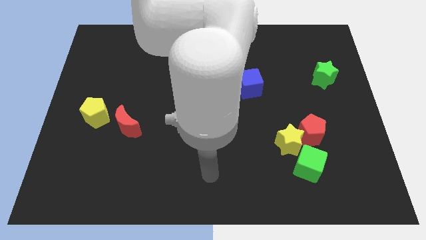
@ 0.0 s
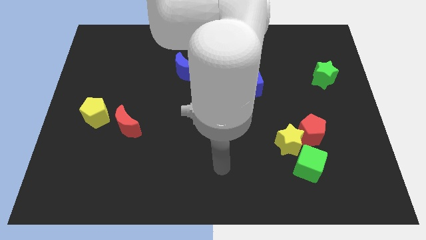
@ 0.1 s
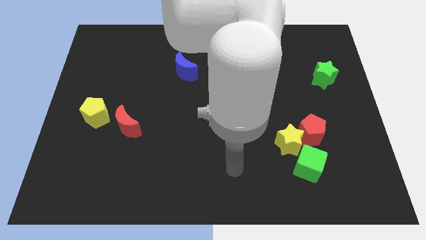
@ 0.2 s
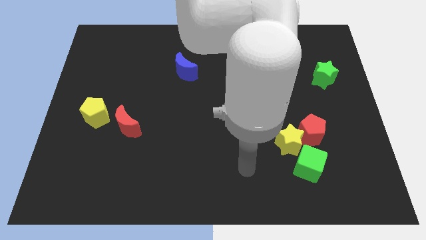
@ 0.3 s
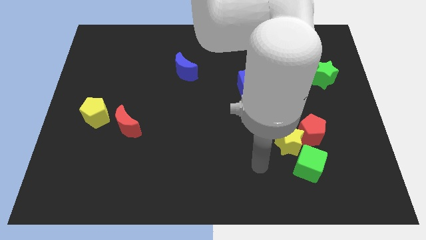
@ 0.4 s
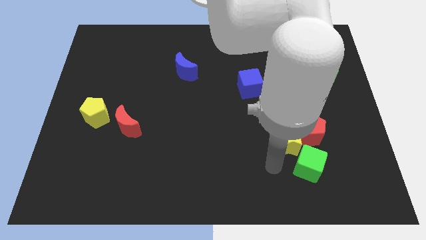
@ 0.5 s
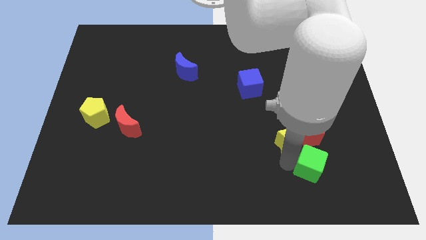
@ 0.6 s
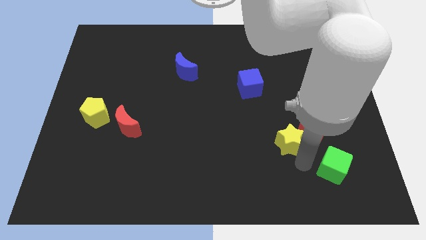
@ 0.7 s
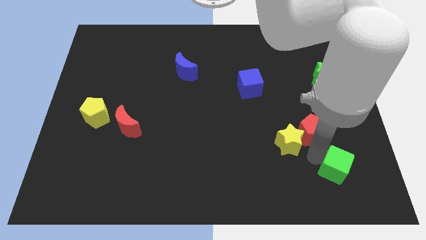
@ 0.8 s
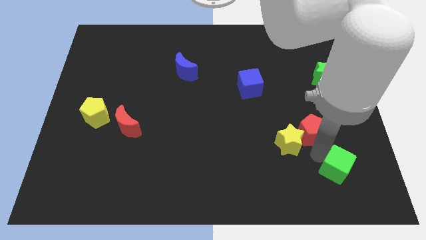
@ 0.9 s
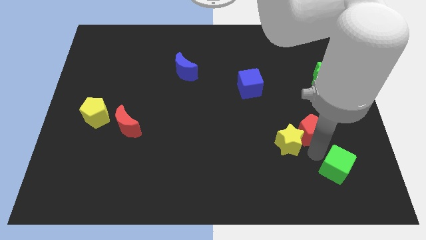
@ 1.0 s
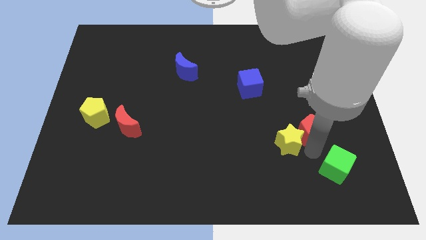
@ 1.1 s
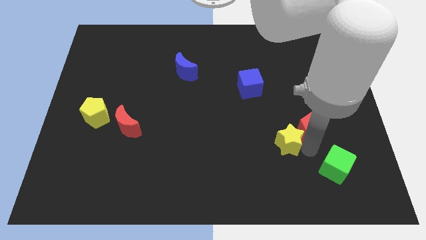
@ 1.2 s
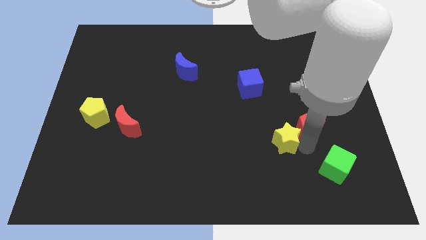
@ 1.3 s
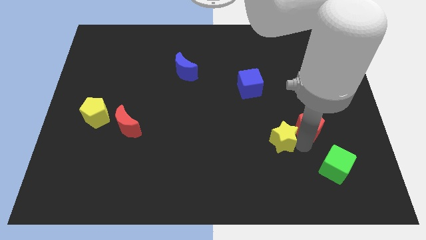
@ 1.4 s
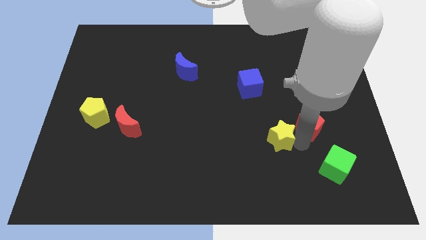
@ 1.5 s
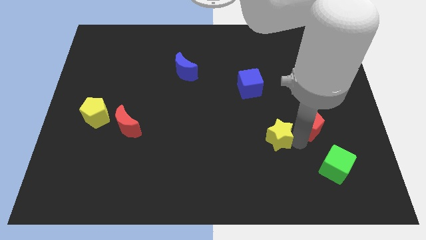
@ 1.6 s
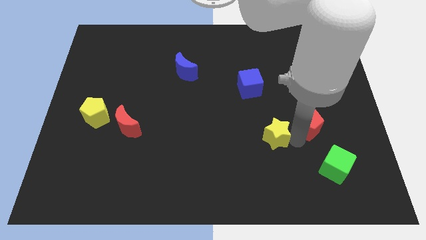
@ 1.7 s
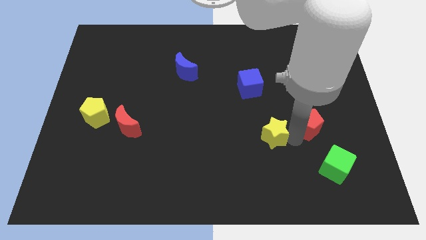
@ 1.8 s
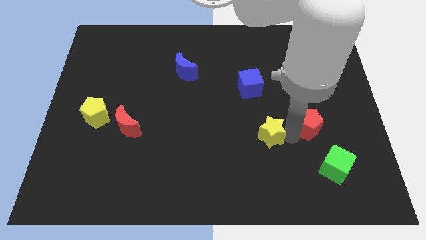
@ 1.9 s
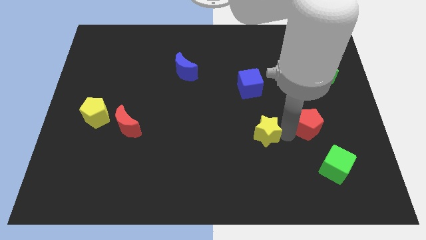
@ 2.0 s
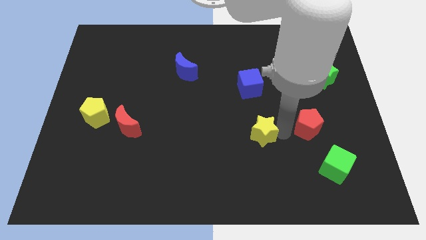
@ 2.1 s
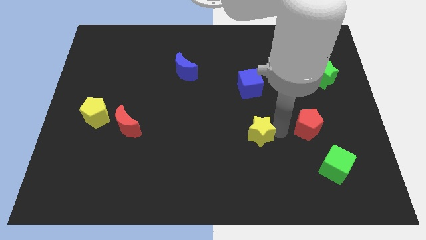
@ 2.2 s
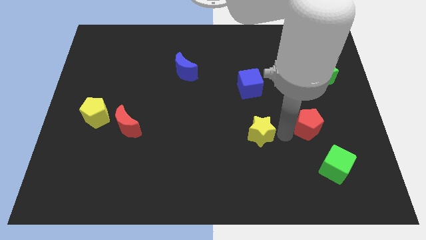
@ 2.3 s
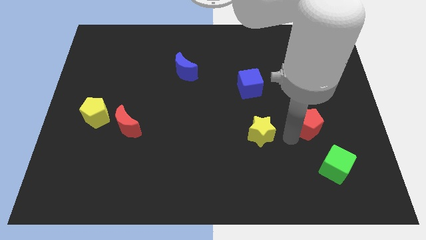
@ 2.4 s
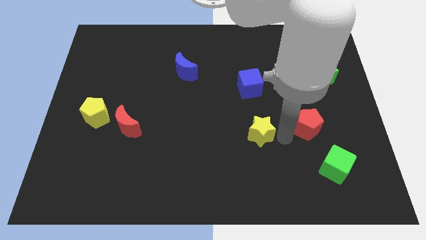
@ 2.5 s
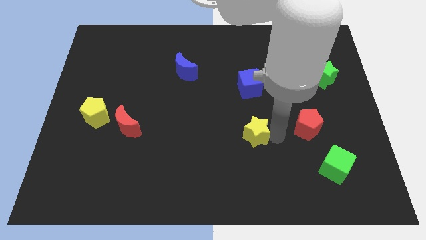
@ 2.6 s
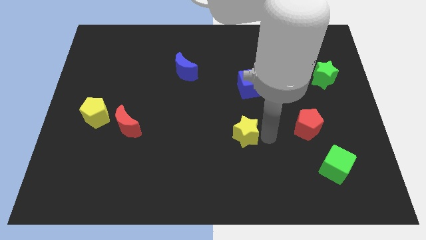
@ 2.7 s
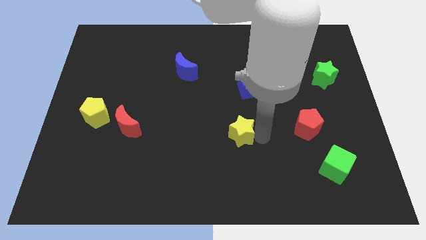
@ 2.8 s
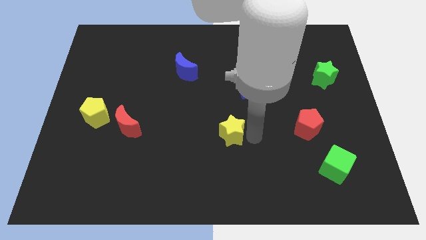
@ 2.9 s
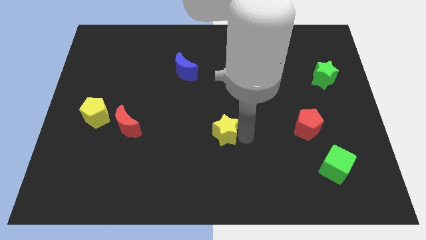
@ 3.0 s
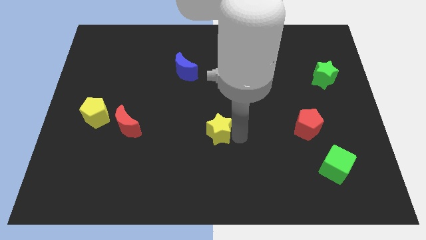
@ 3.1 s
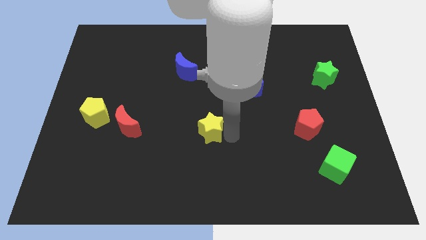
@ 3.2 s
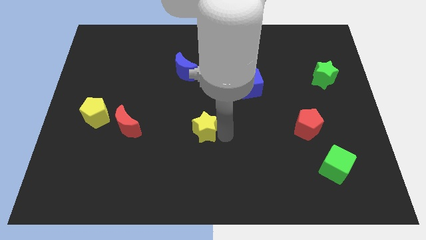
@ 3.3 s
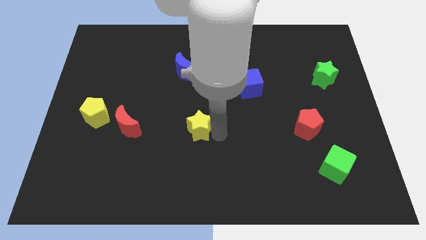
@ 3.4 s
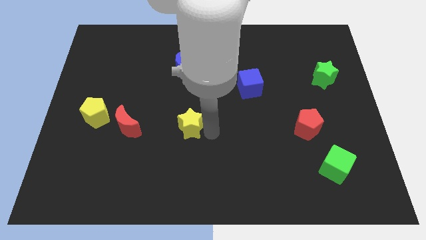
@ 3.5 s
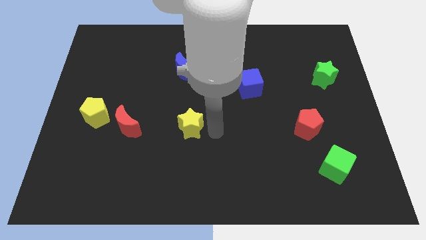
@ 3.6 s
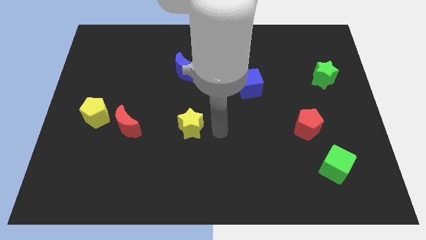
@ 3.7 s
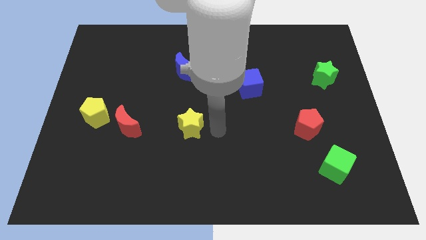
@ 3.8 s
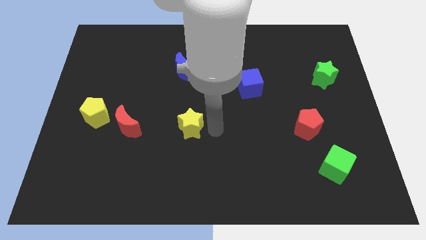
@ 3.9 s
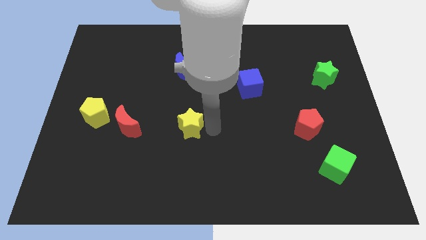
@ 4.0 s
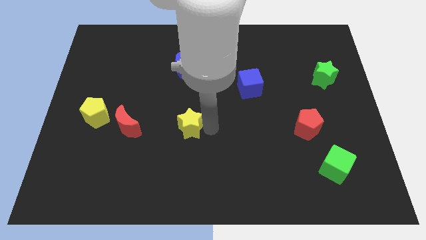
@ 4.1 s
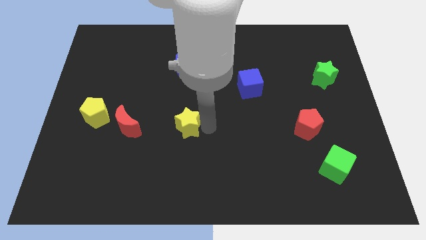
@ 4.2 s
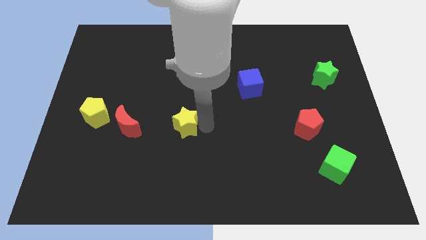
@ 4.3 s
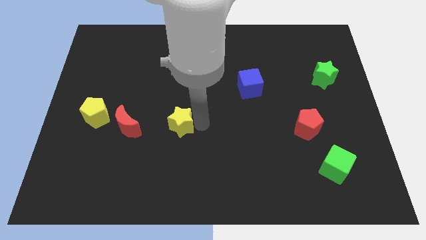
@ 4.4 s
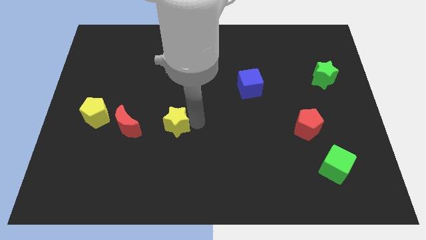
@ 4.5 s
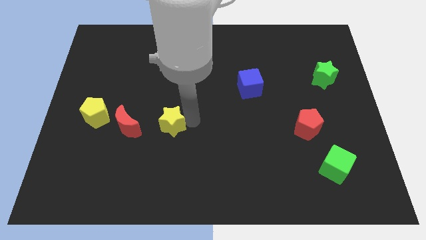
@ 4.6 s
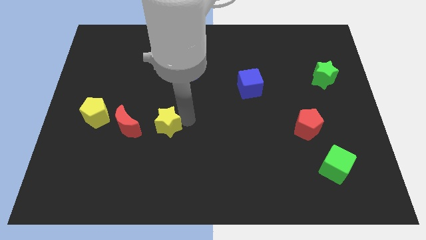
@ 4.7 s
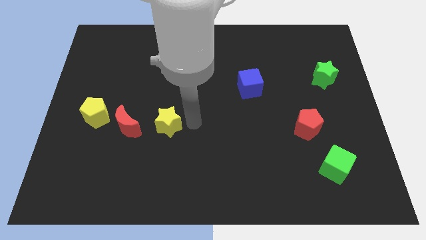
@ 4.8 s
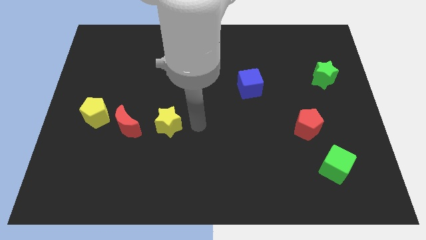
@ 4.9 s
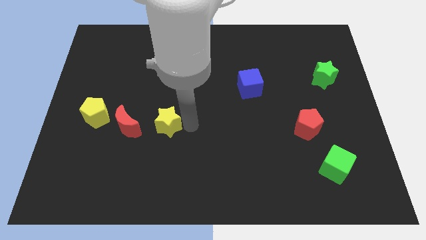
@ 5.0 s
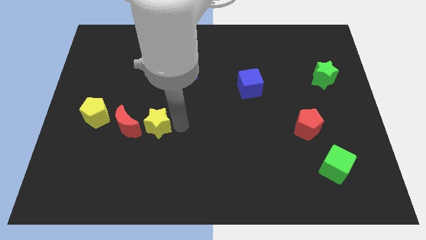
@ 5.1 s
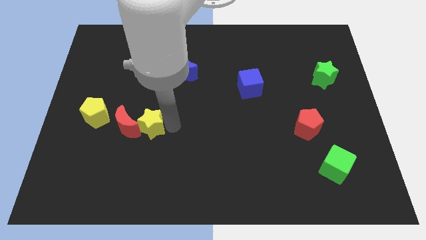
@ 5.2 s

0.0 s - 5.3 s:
slide the yellow star towards the red moon

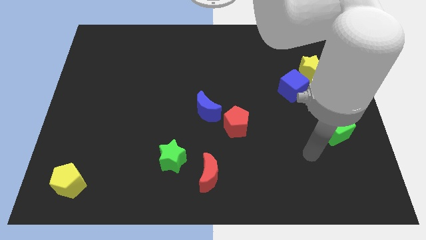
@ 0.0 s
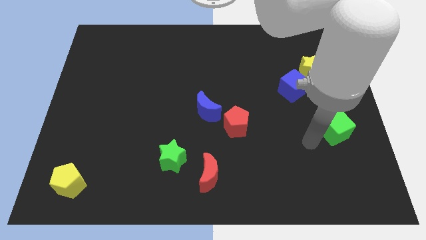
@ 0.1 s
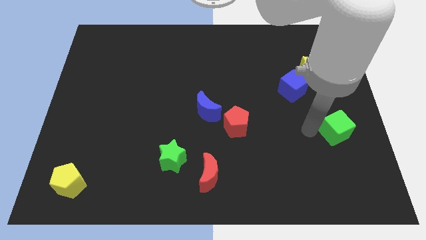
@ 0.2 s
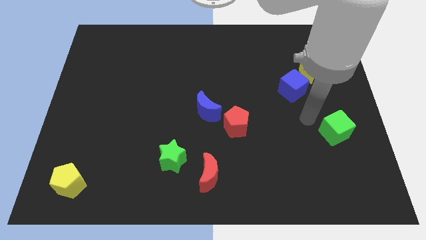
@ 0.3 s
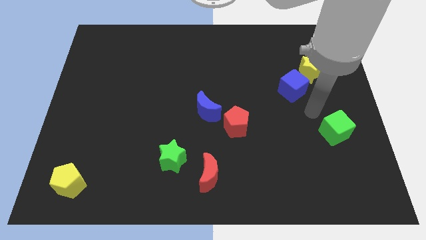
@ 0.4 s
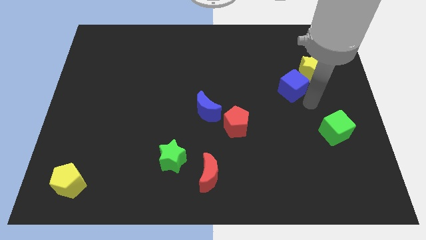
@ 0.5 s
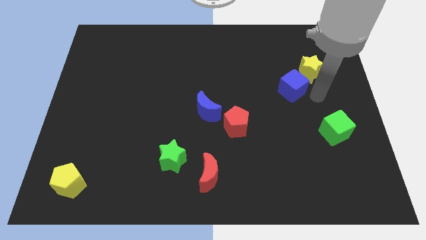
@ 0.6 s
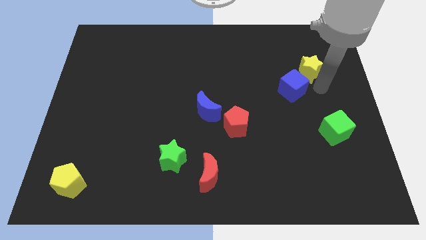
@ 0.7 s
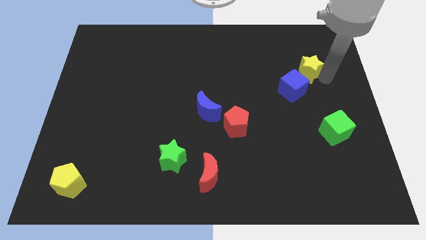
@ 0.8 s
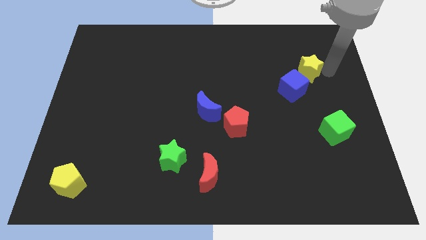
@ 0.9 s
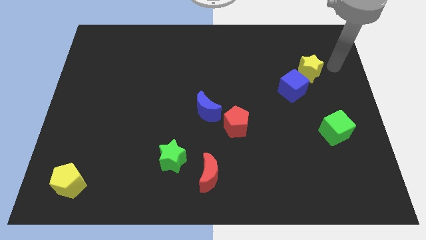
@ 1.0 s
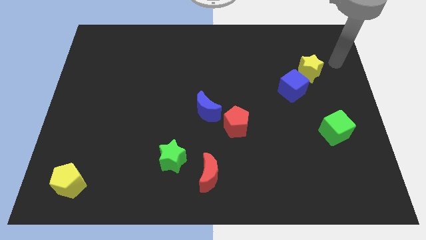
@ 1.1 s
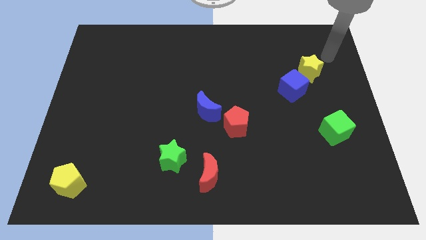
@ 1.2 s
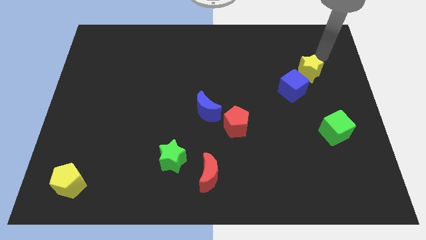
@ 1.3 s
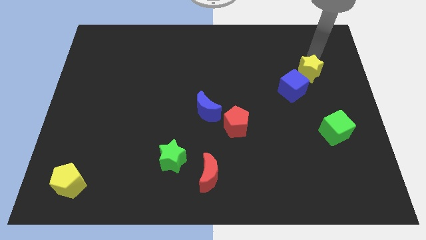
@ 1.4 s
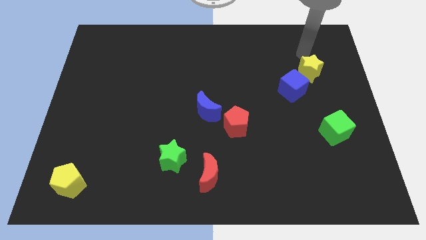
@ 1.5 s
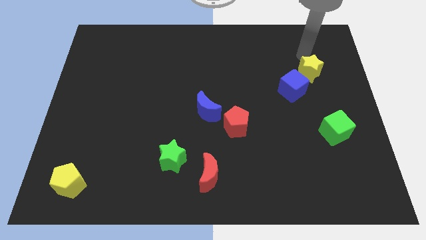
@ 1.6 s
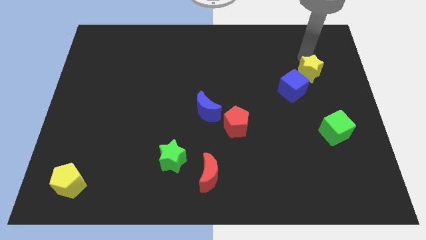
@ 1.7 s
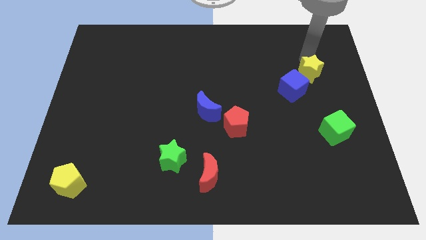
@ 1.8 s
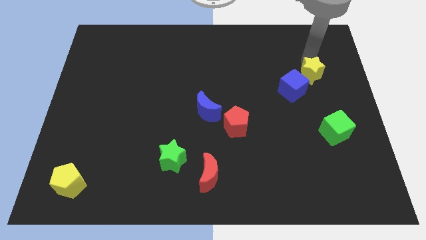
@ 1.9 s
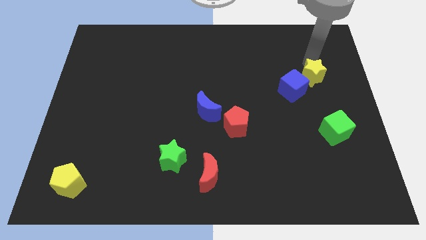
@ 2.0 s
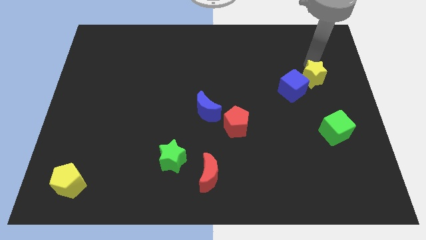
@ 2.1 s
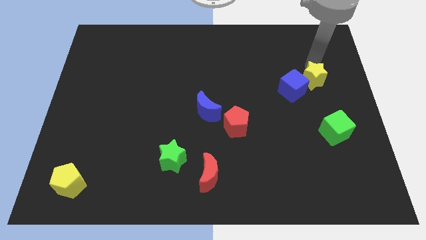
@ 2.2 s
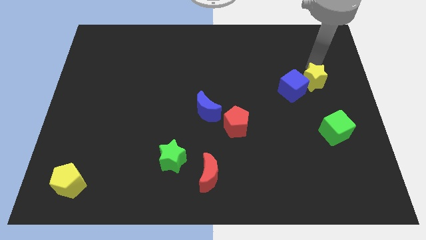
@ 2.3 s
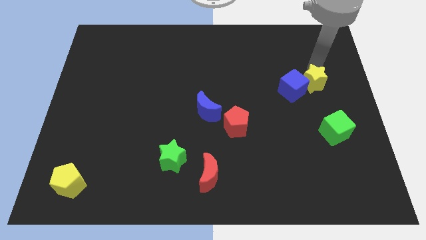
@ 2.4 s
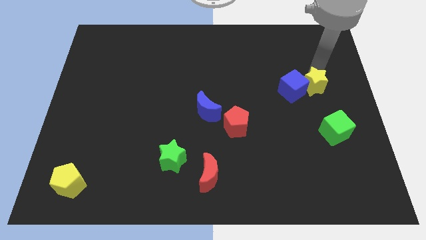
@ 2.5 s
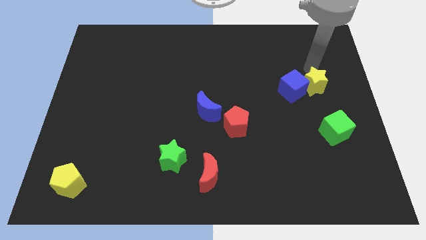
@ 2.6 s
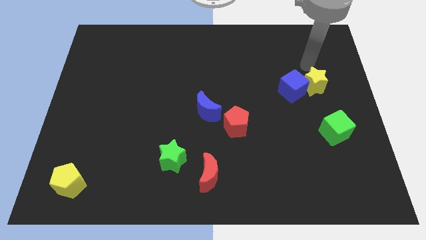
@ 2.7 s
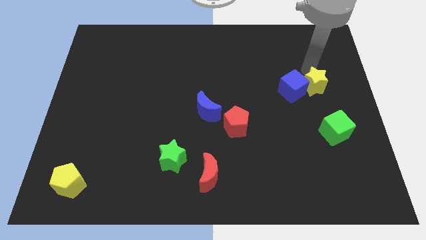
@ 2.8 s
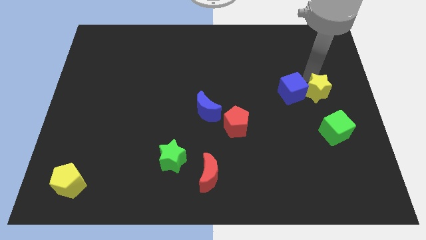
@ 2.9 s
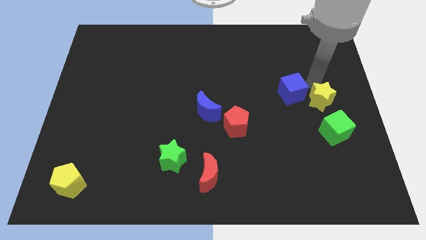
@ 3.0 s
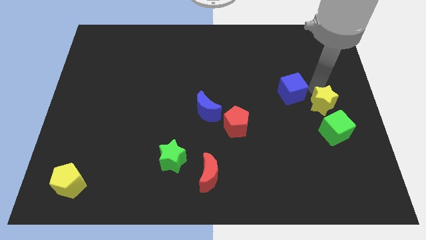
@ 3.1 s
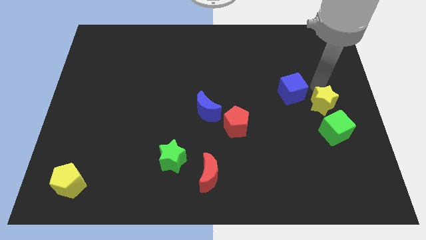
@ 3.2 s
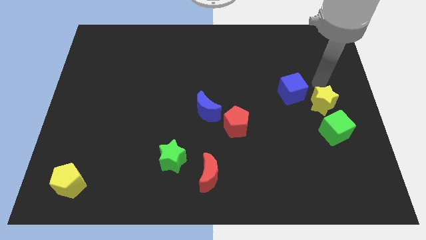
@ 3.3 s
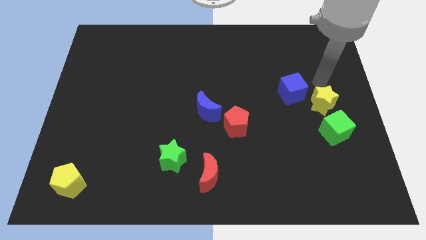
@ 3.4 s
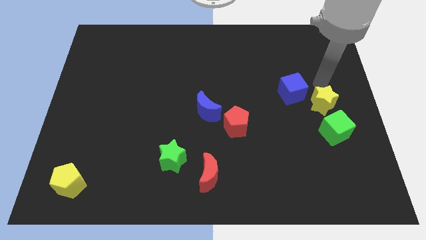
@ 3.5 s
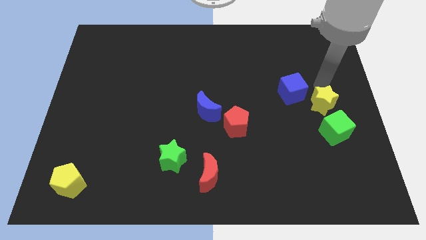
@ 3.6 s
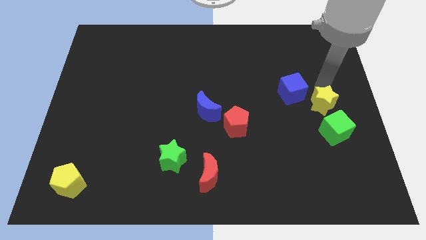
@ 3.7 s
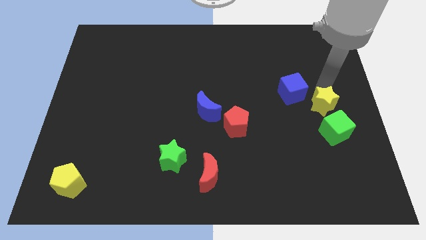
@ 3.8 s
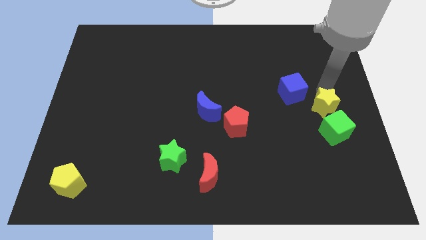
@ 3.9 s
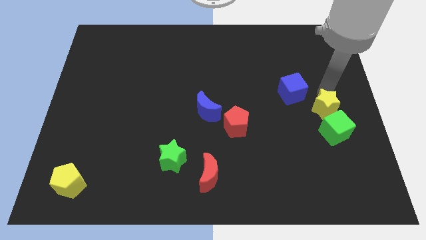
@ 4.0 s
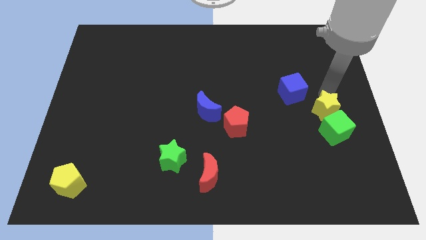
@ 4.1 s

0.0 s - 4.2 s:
move the yellow star next to the green cube
